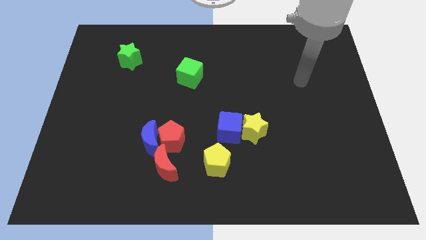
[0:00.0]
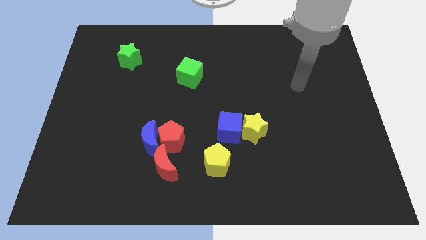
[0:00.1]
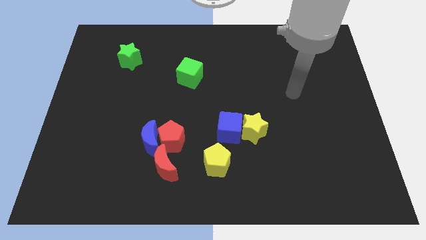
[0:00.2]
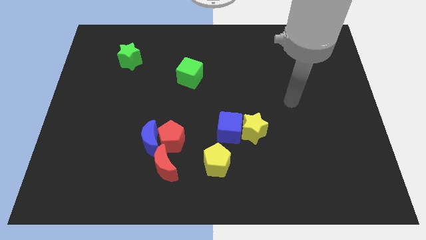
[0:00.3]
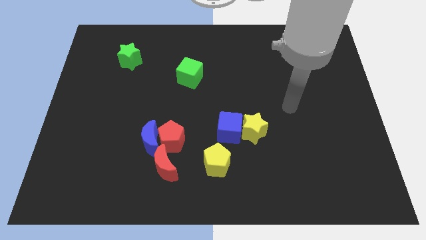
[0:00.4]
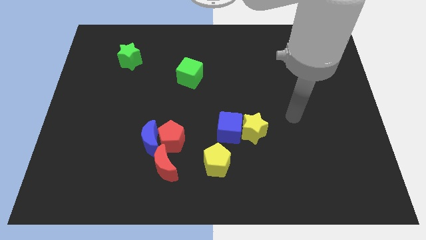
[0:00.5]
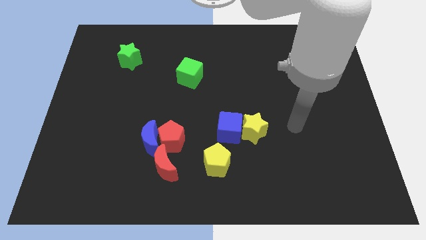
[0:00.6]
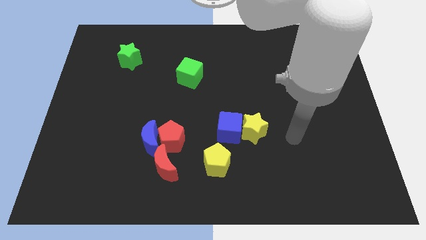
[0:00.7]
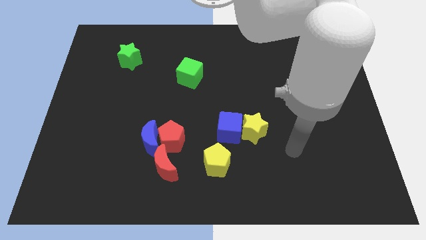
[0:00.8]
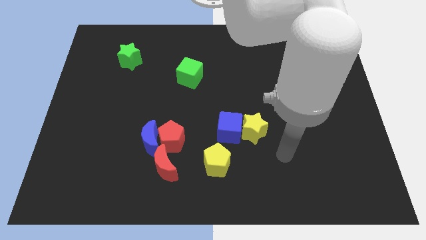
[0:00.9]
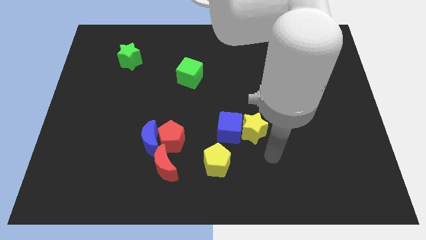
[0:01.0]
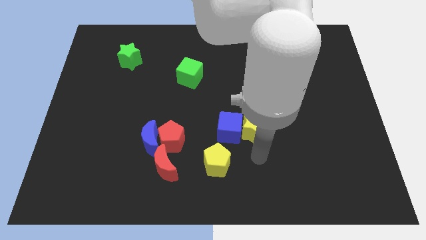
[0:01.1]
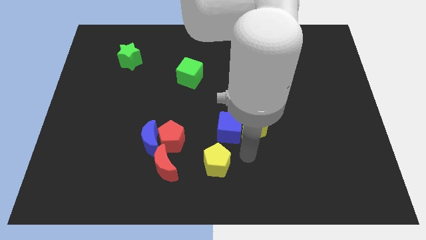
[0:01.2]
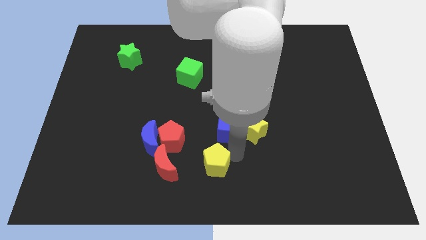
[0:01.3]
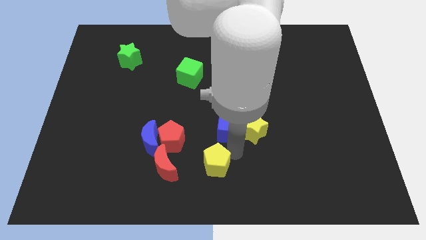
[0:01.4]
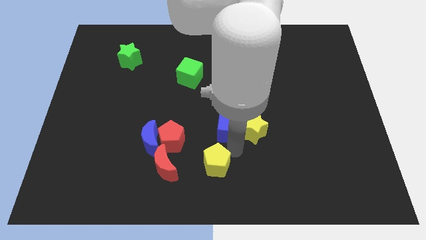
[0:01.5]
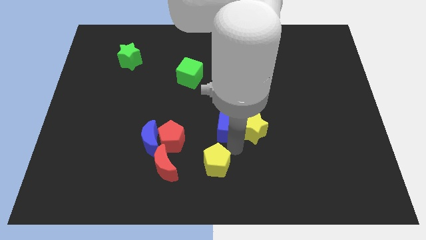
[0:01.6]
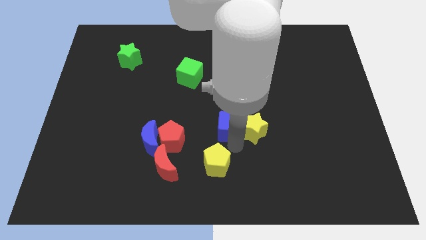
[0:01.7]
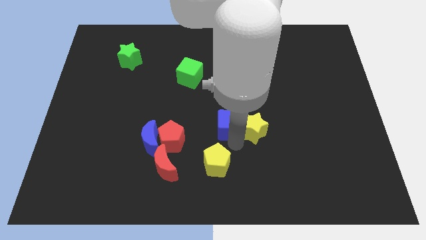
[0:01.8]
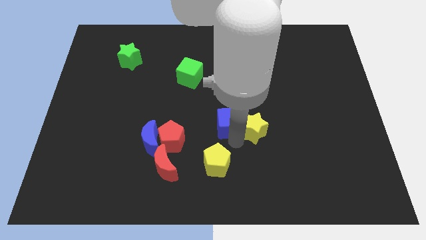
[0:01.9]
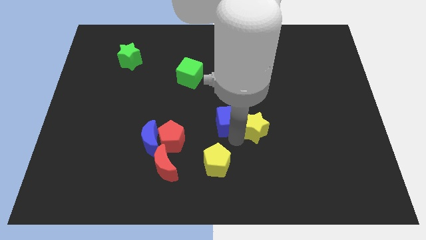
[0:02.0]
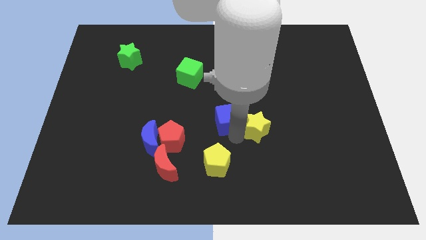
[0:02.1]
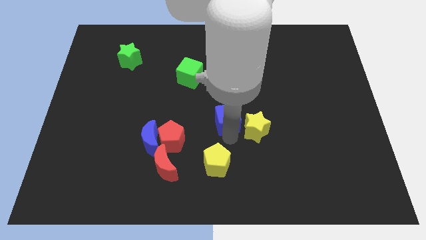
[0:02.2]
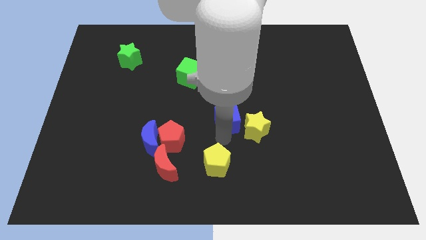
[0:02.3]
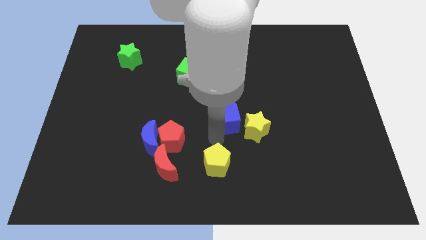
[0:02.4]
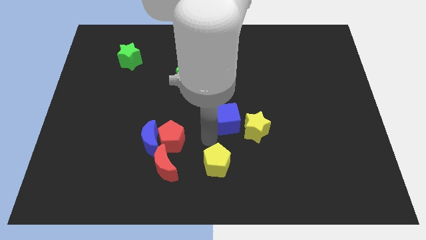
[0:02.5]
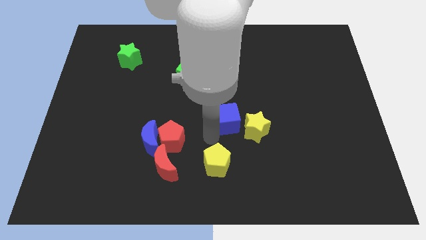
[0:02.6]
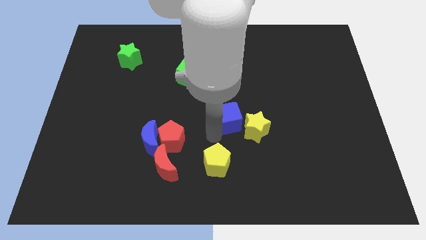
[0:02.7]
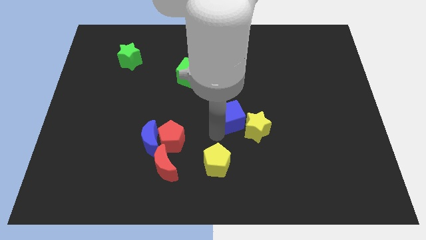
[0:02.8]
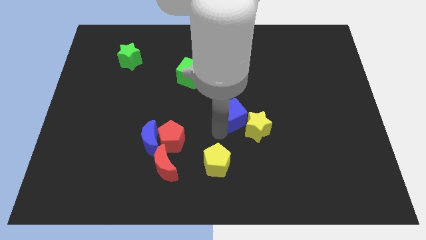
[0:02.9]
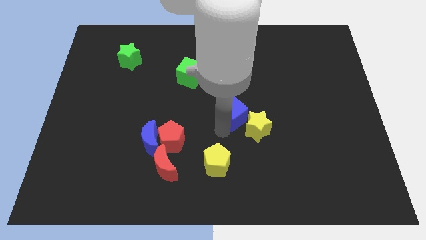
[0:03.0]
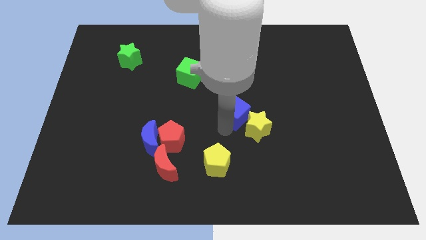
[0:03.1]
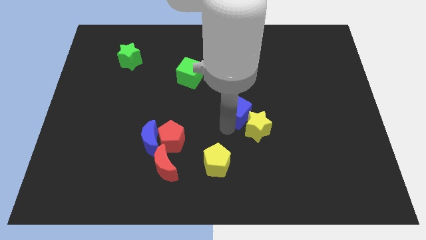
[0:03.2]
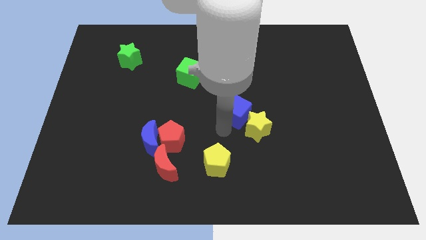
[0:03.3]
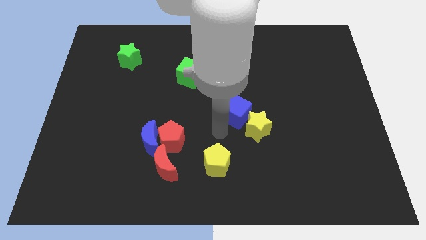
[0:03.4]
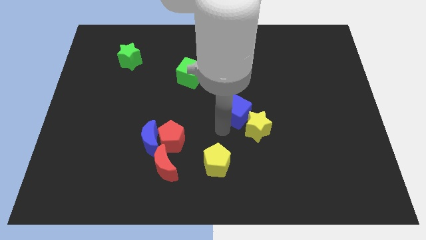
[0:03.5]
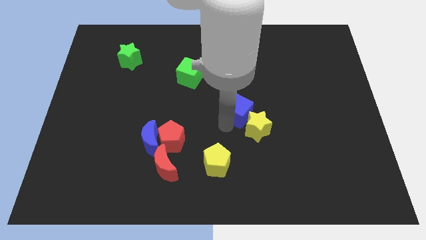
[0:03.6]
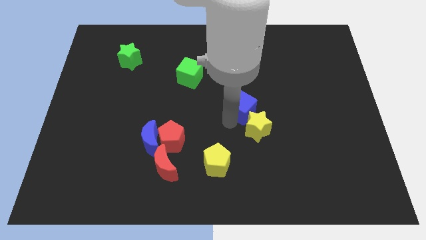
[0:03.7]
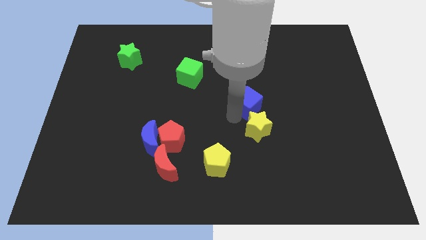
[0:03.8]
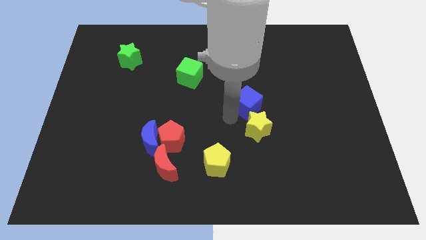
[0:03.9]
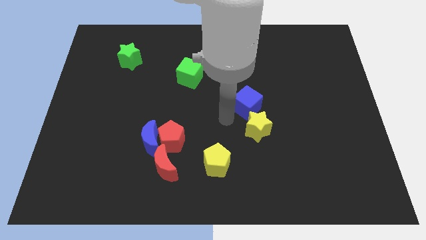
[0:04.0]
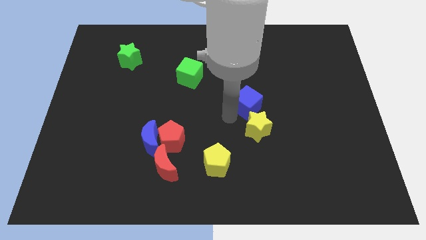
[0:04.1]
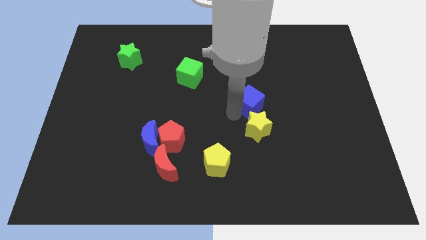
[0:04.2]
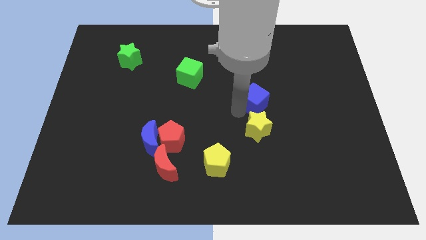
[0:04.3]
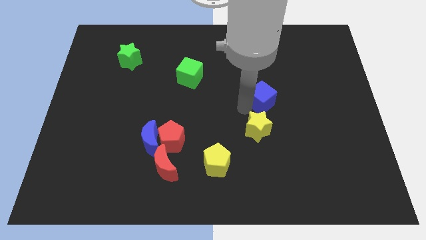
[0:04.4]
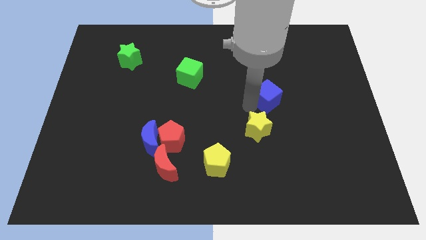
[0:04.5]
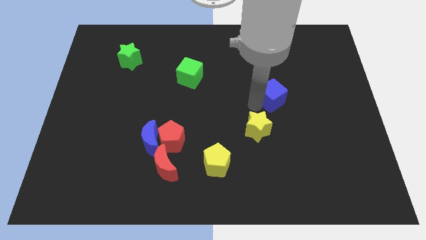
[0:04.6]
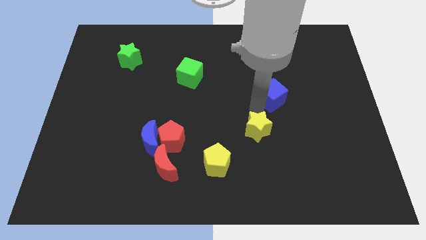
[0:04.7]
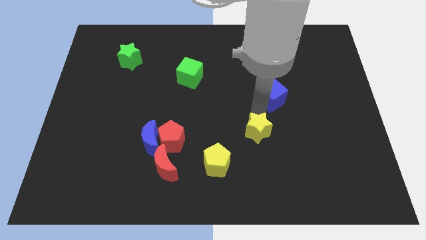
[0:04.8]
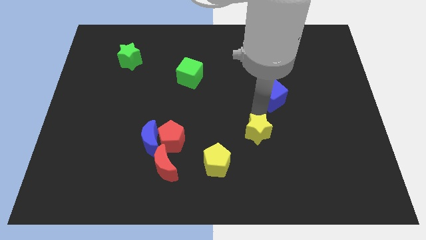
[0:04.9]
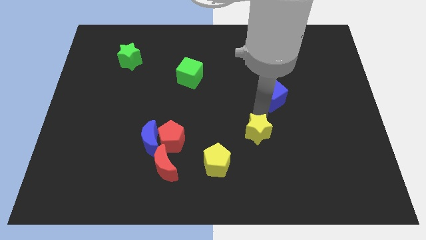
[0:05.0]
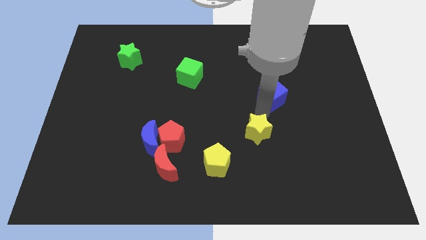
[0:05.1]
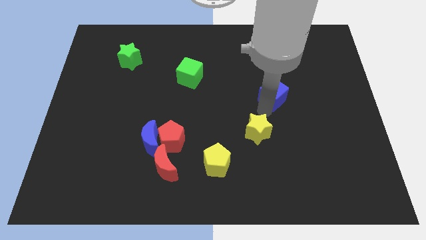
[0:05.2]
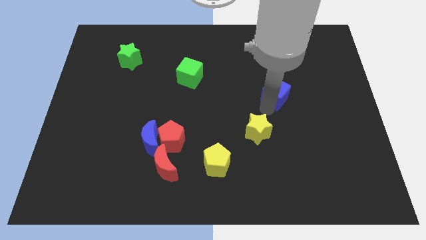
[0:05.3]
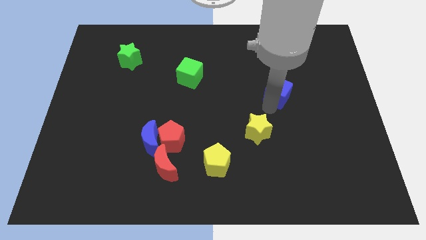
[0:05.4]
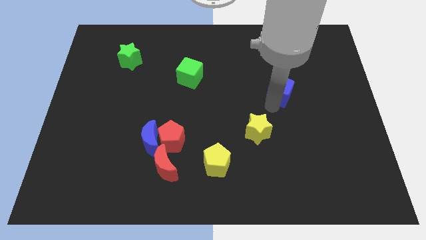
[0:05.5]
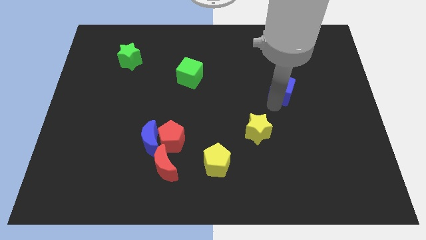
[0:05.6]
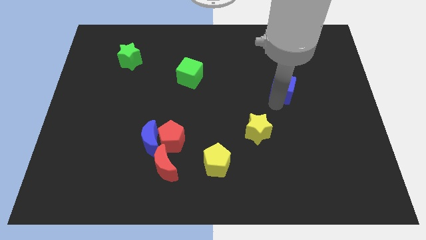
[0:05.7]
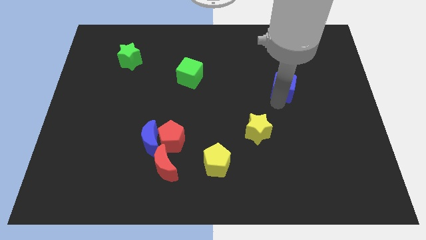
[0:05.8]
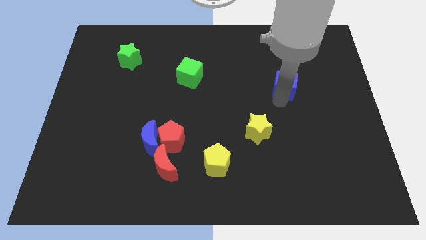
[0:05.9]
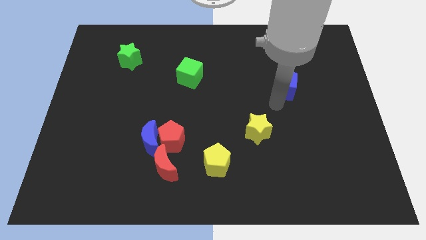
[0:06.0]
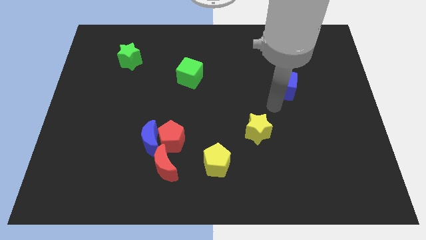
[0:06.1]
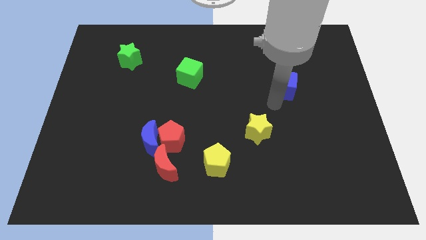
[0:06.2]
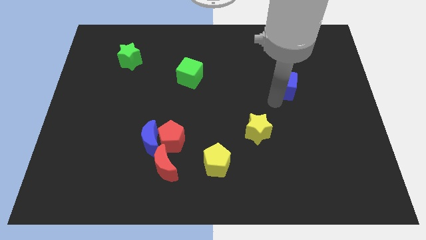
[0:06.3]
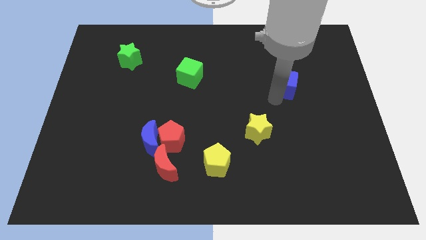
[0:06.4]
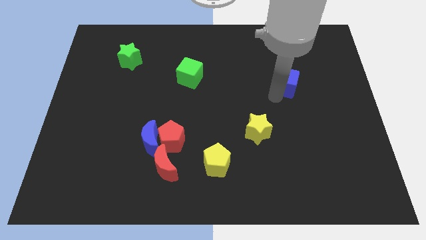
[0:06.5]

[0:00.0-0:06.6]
move the blue cube diagonally upwards and to the right

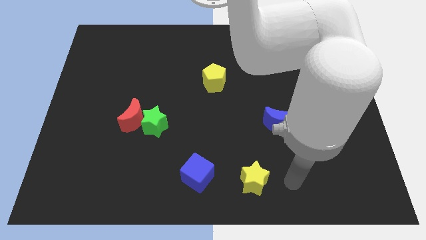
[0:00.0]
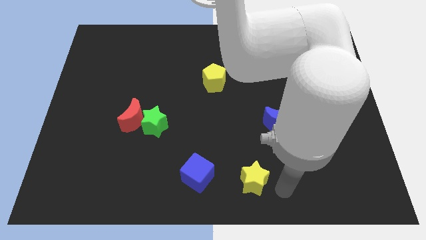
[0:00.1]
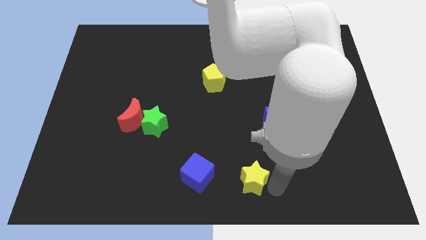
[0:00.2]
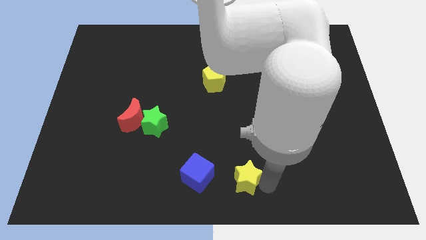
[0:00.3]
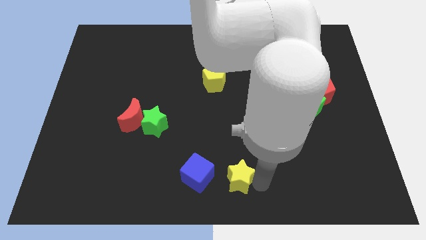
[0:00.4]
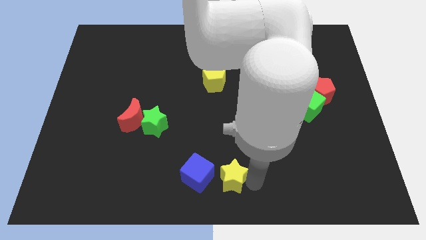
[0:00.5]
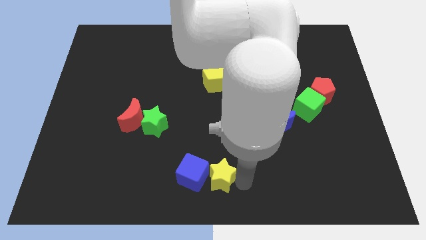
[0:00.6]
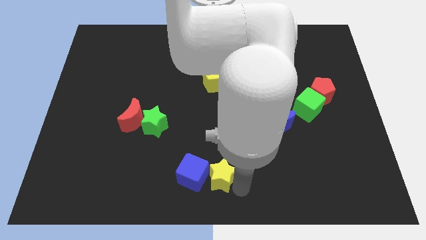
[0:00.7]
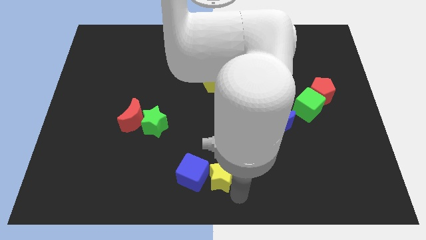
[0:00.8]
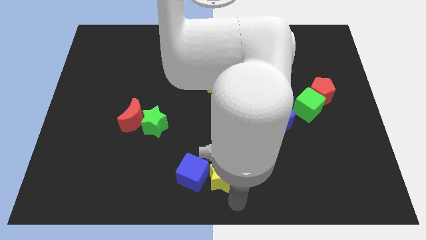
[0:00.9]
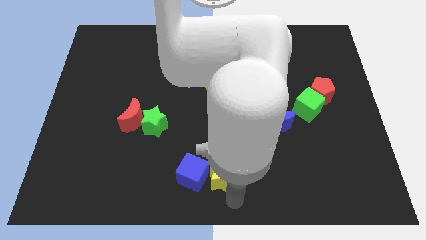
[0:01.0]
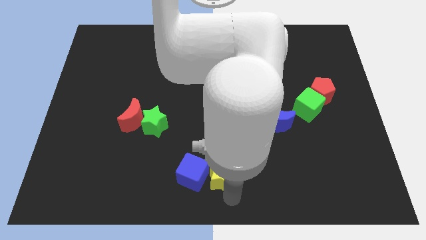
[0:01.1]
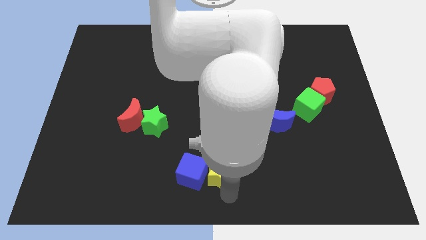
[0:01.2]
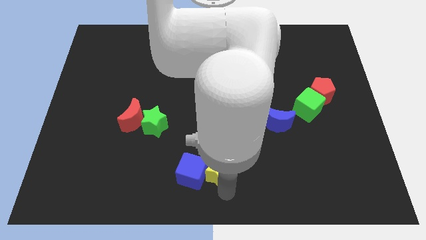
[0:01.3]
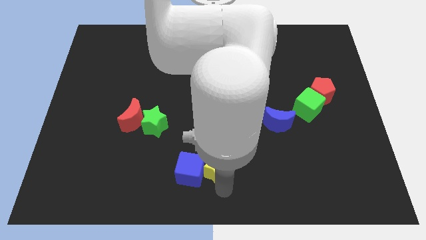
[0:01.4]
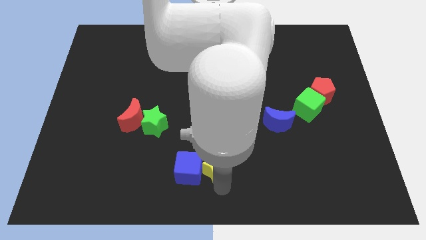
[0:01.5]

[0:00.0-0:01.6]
slightly slide the yellow star up and to the left
